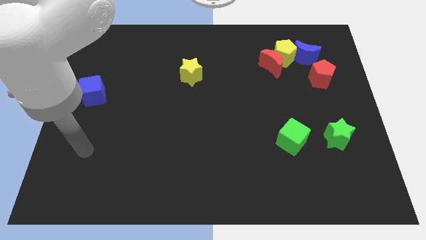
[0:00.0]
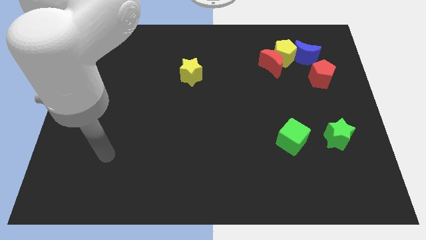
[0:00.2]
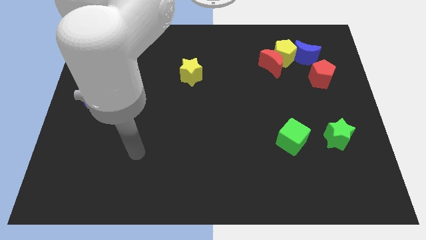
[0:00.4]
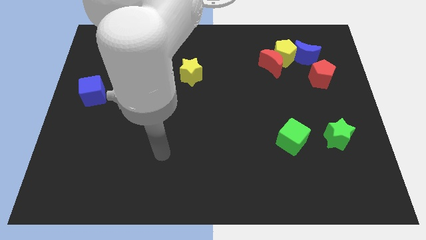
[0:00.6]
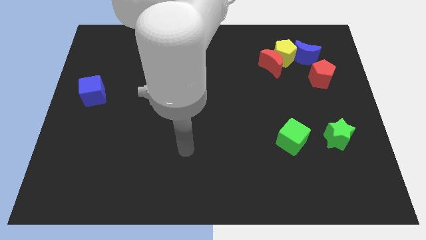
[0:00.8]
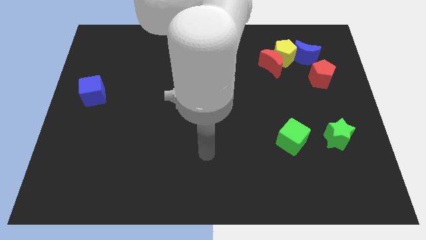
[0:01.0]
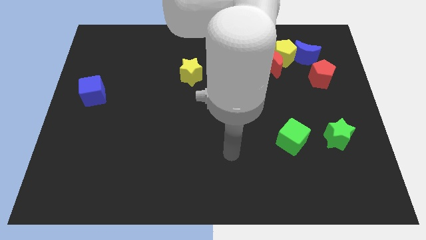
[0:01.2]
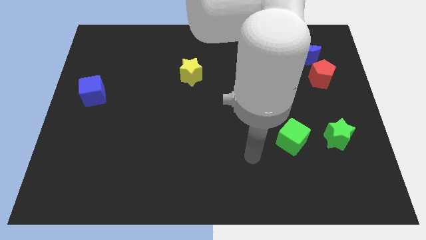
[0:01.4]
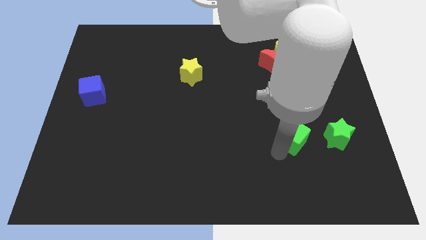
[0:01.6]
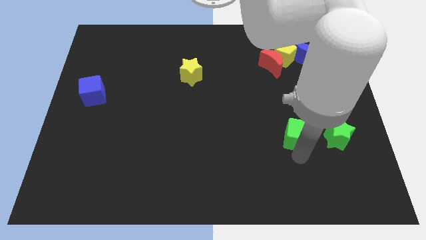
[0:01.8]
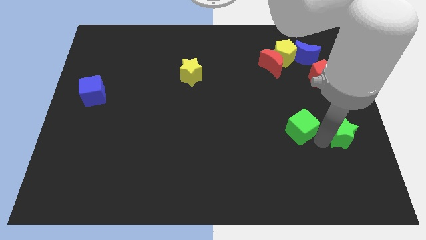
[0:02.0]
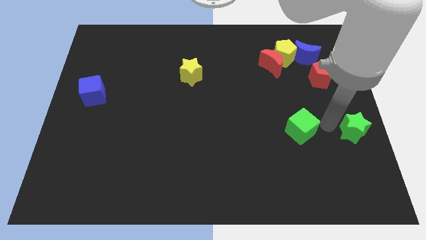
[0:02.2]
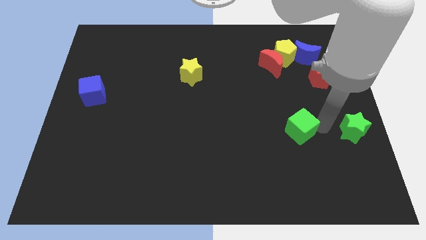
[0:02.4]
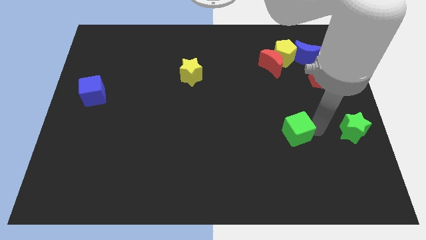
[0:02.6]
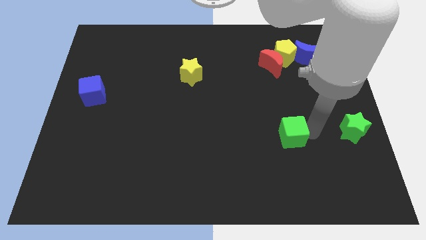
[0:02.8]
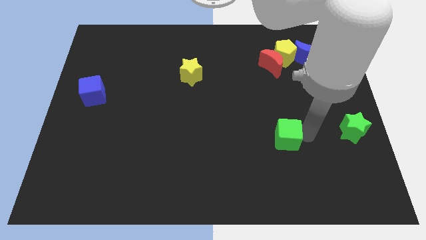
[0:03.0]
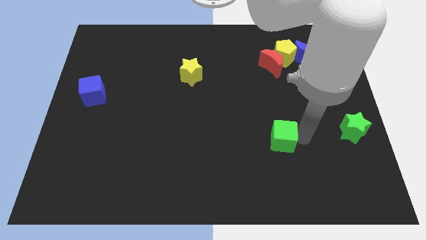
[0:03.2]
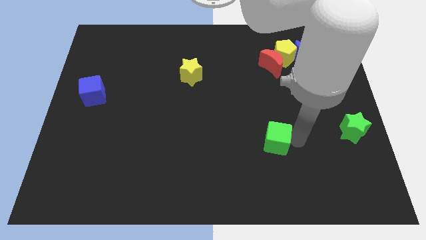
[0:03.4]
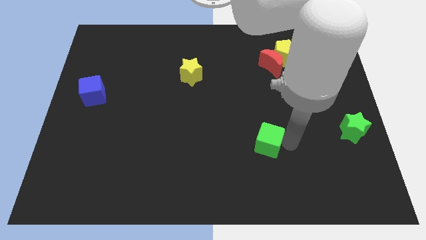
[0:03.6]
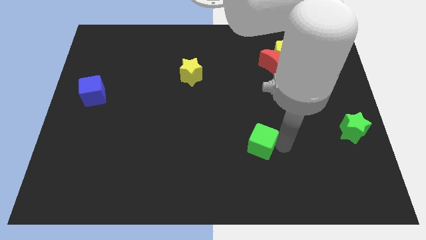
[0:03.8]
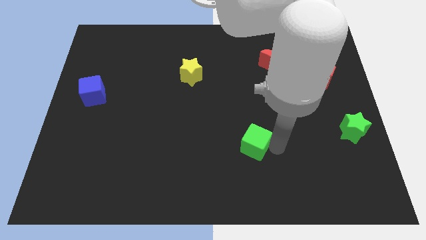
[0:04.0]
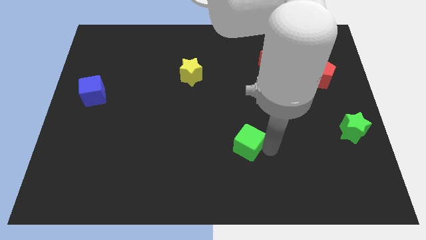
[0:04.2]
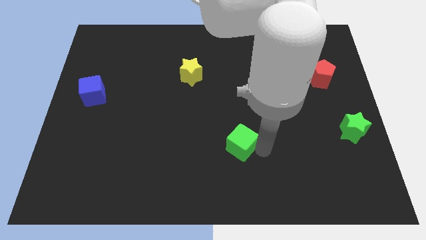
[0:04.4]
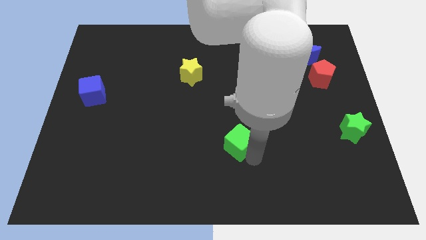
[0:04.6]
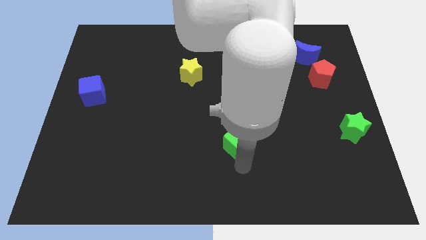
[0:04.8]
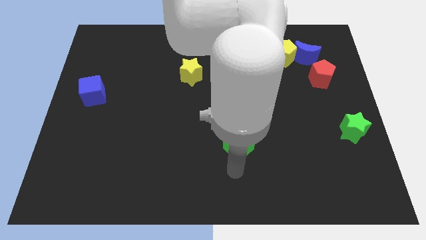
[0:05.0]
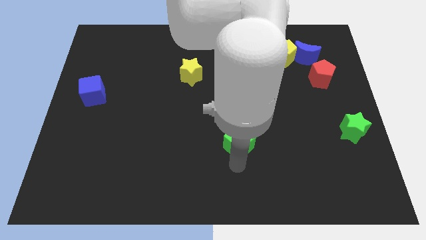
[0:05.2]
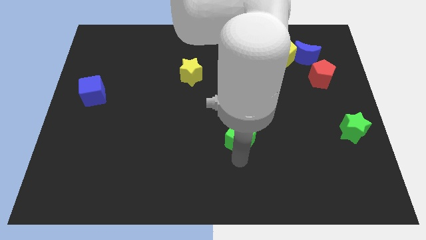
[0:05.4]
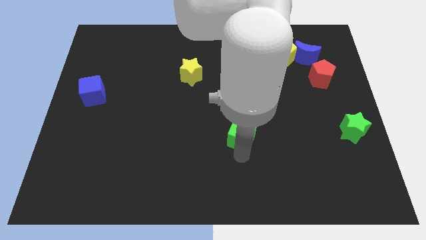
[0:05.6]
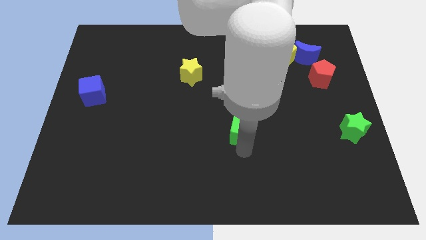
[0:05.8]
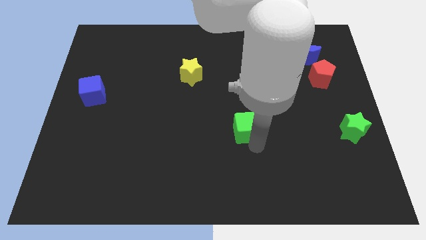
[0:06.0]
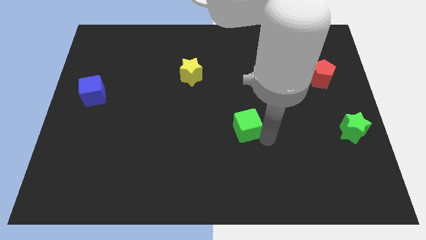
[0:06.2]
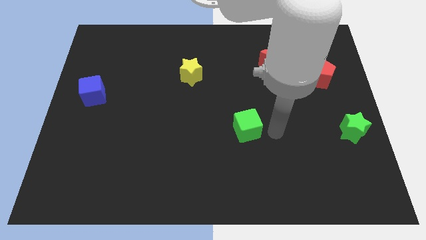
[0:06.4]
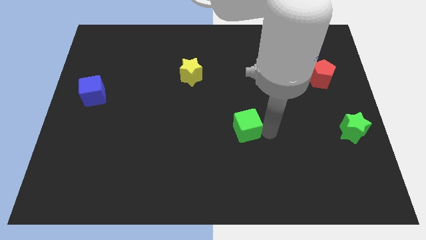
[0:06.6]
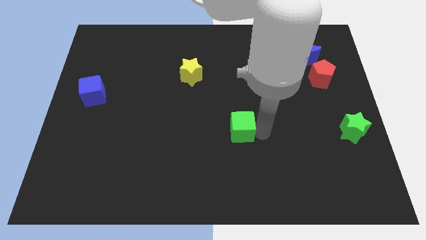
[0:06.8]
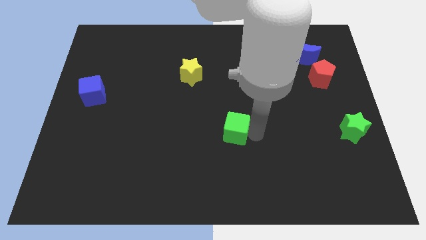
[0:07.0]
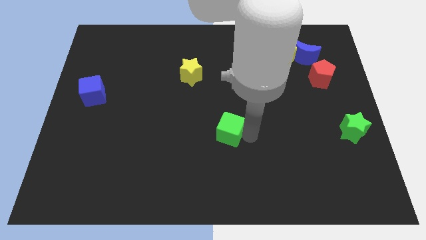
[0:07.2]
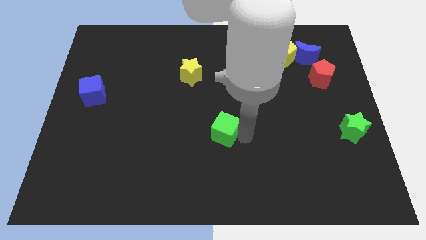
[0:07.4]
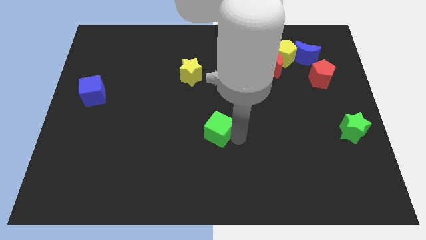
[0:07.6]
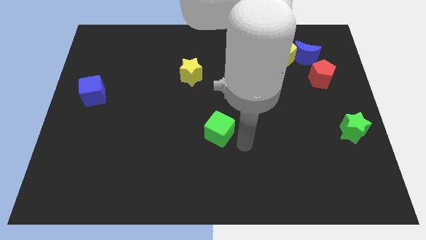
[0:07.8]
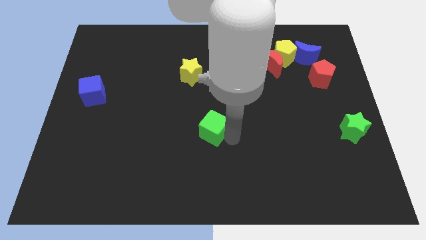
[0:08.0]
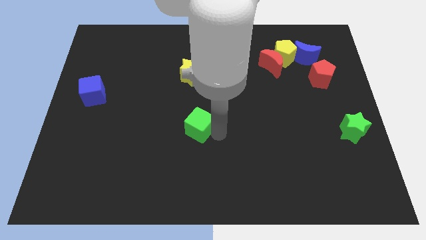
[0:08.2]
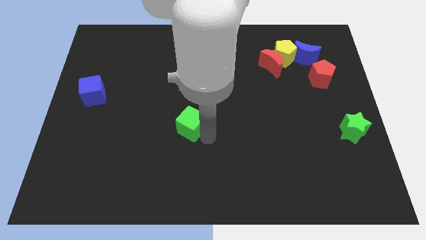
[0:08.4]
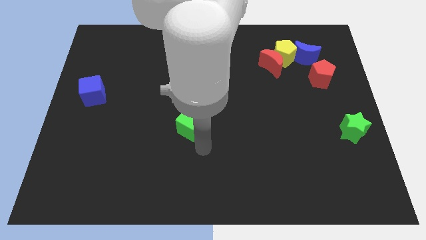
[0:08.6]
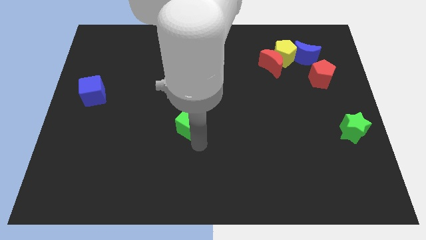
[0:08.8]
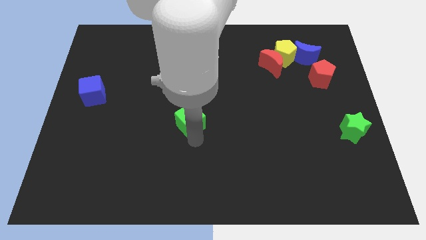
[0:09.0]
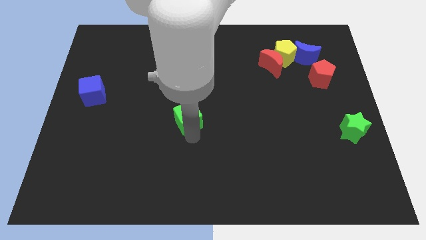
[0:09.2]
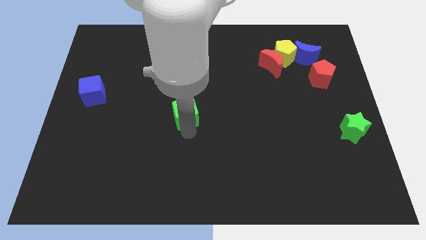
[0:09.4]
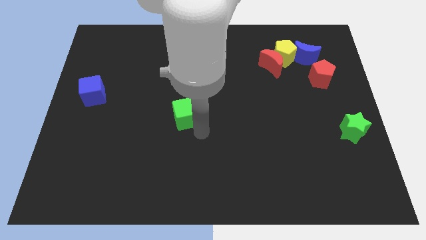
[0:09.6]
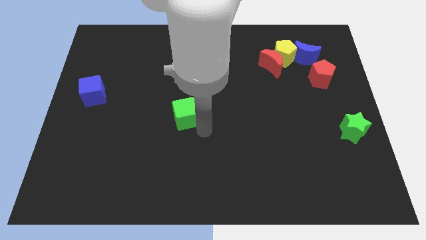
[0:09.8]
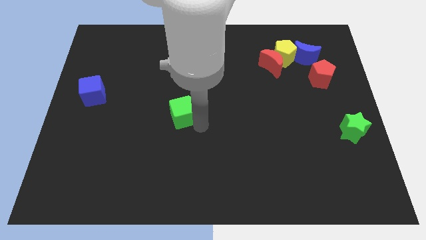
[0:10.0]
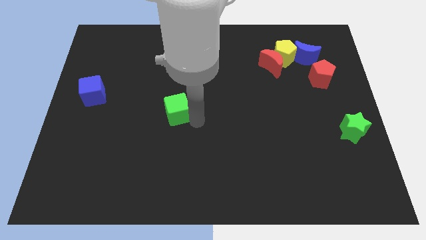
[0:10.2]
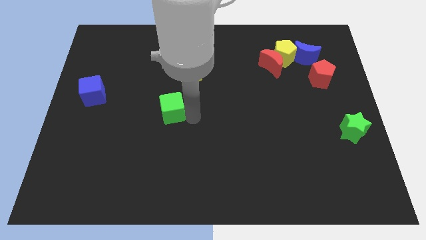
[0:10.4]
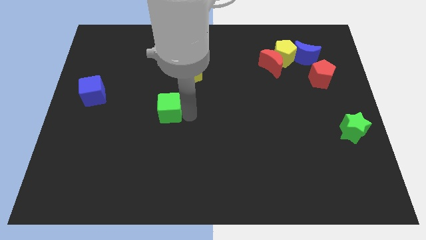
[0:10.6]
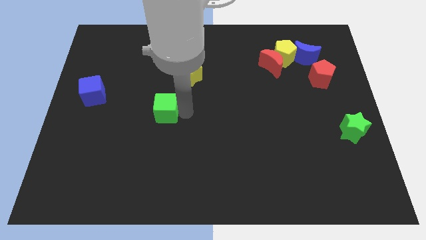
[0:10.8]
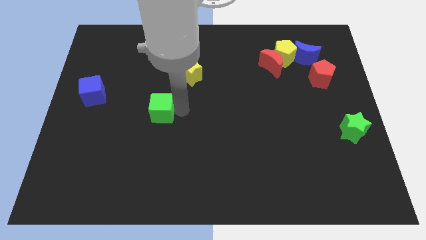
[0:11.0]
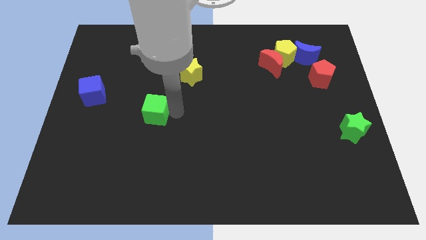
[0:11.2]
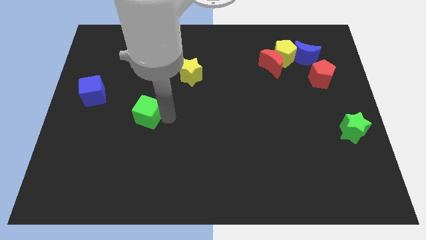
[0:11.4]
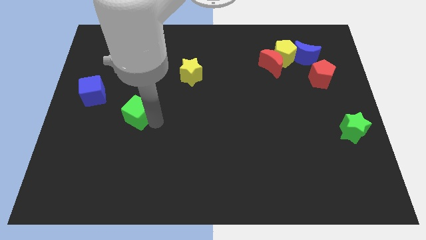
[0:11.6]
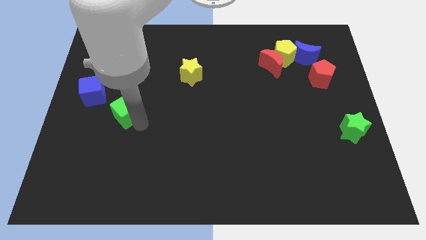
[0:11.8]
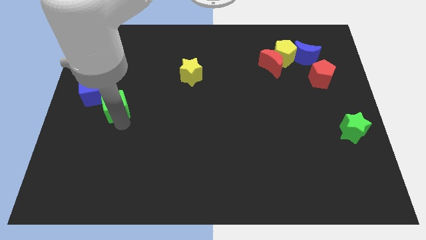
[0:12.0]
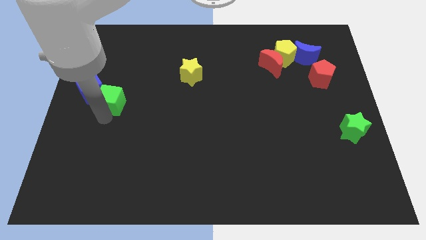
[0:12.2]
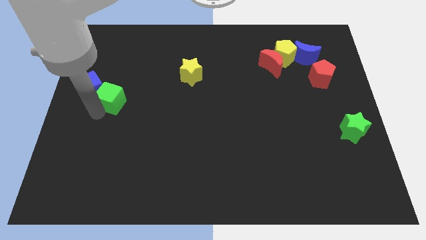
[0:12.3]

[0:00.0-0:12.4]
push the green cube close to the blue cube

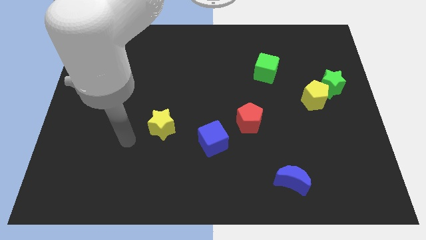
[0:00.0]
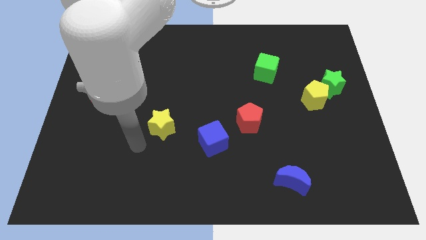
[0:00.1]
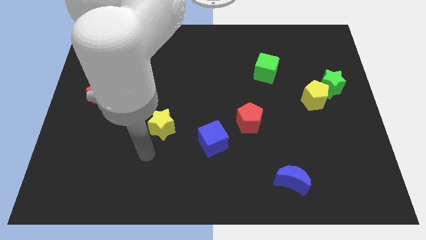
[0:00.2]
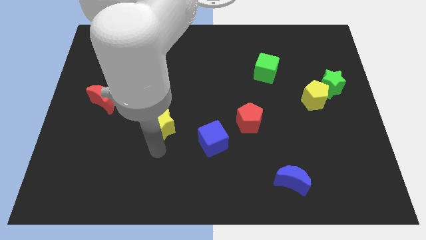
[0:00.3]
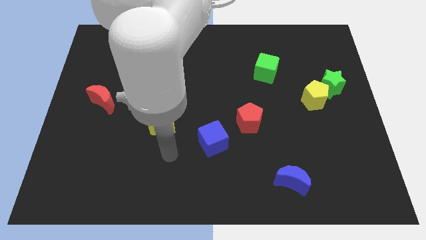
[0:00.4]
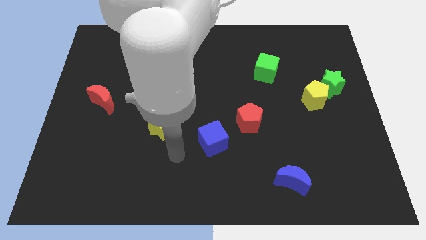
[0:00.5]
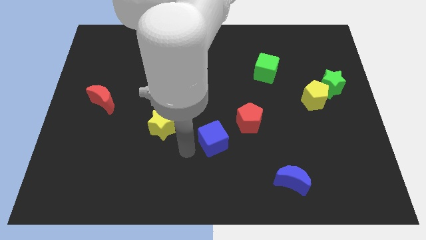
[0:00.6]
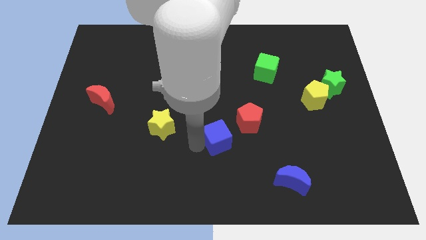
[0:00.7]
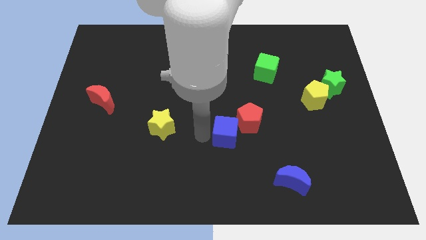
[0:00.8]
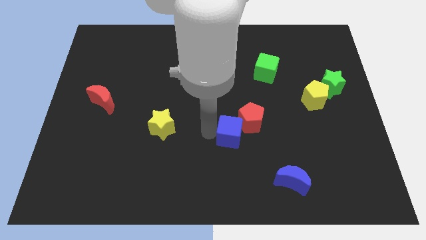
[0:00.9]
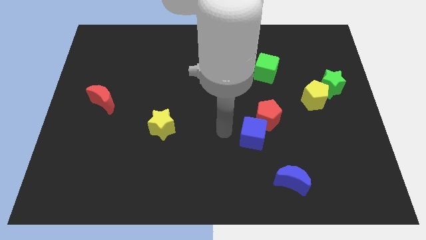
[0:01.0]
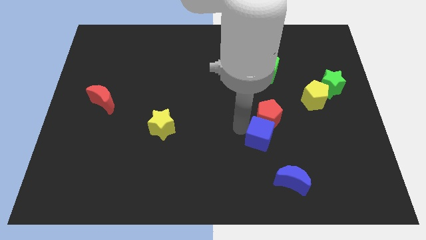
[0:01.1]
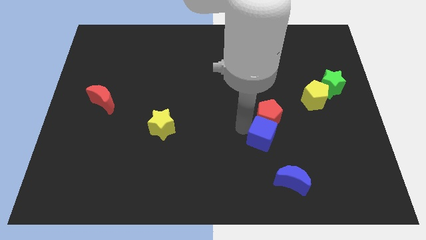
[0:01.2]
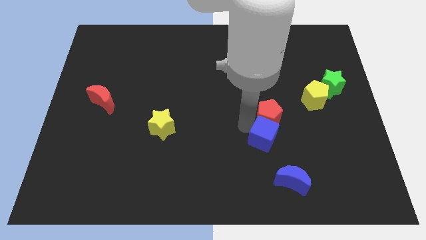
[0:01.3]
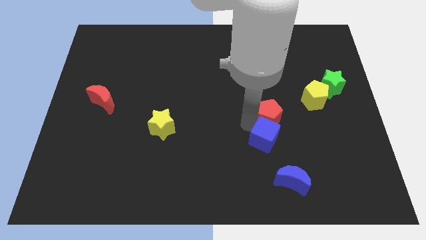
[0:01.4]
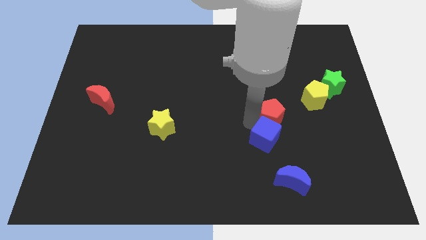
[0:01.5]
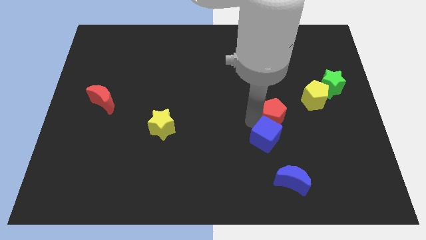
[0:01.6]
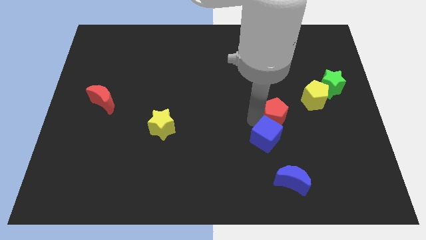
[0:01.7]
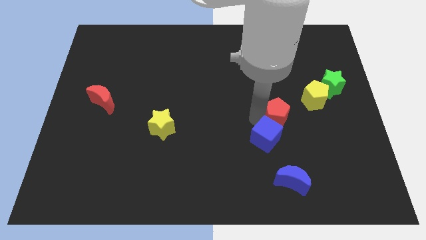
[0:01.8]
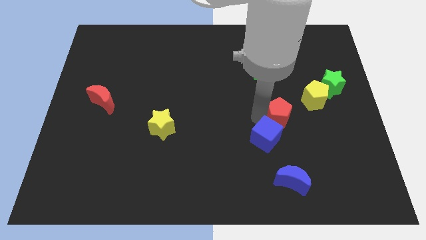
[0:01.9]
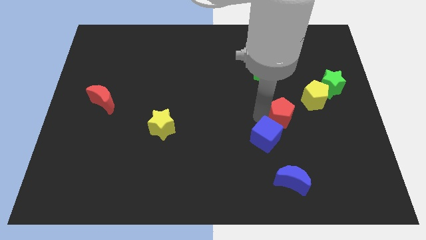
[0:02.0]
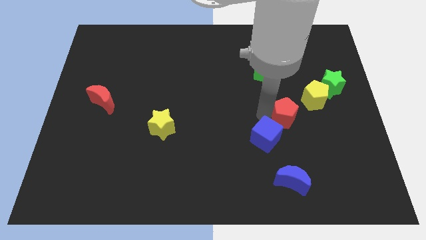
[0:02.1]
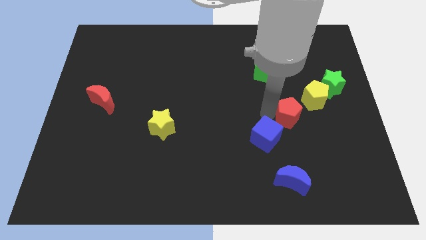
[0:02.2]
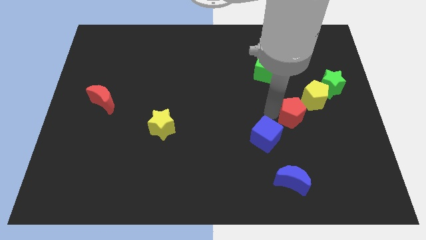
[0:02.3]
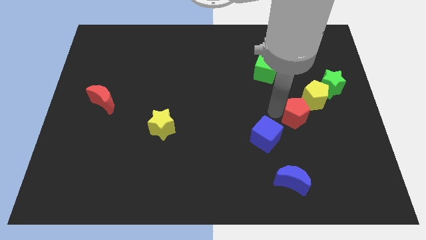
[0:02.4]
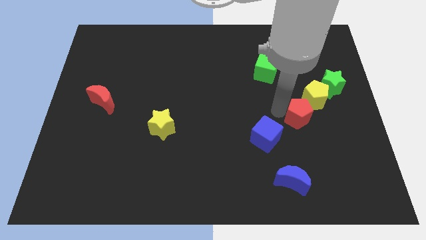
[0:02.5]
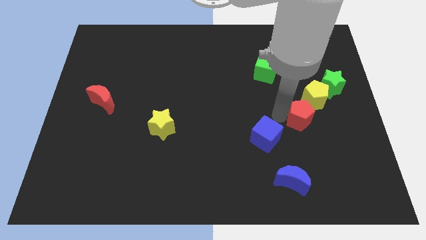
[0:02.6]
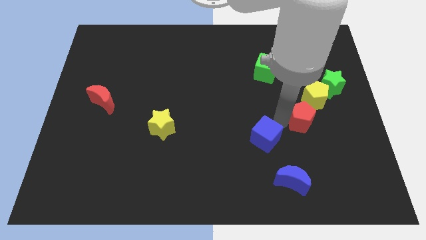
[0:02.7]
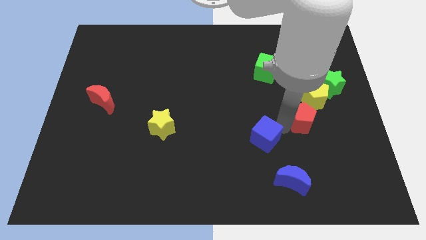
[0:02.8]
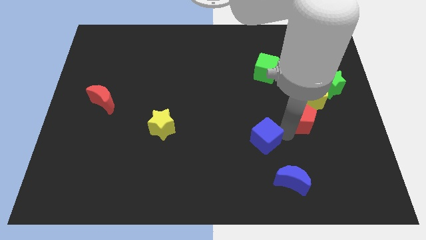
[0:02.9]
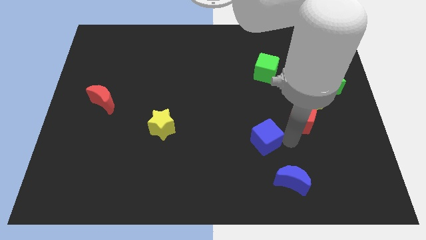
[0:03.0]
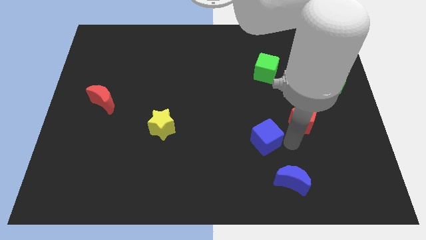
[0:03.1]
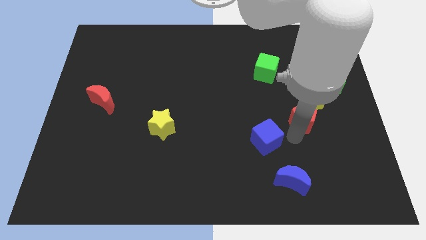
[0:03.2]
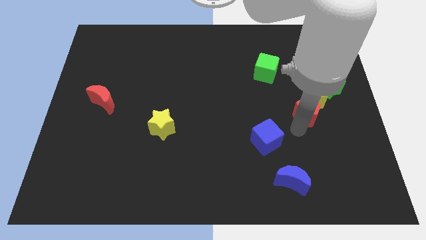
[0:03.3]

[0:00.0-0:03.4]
slide the red pentagon to the yellow pentagon
